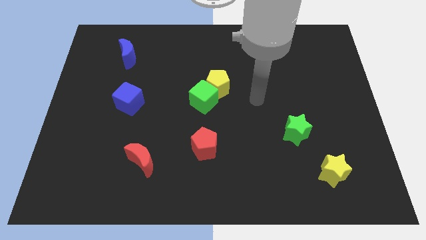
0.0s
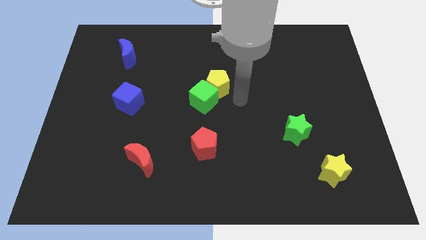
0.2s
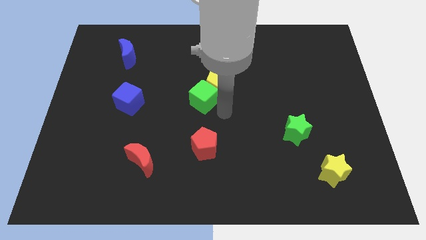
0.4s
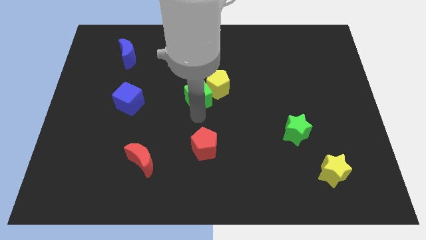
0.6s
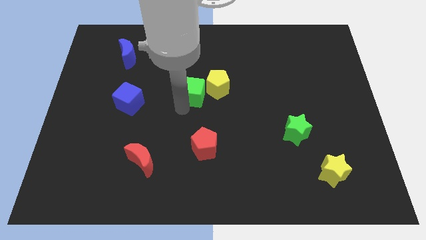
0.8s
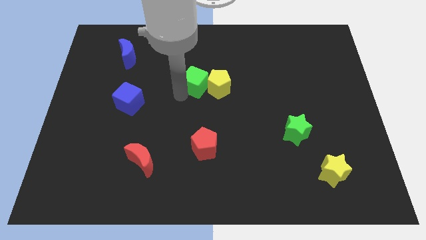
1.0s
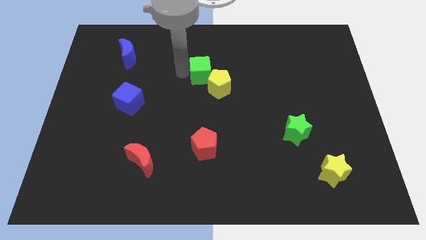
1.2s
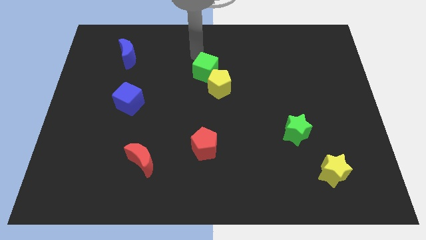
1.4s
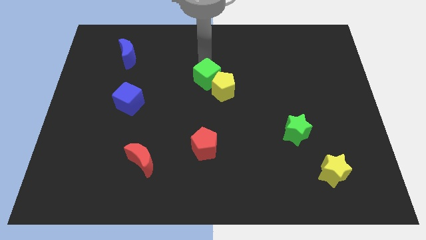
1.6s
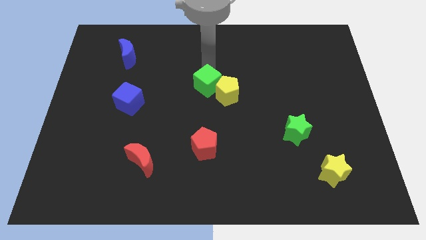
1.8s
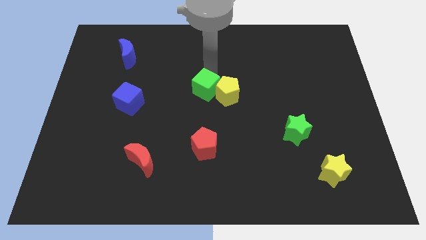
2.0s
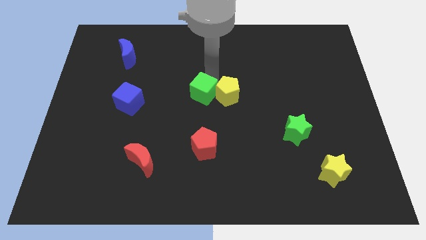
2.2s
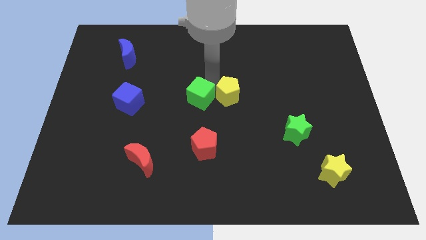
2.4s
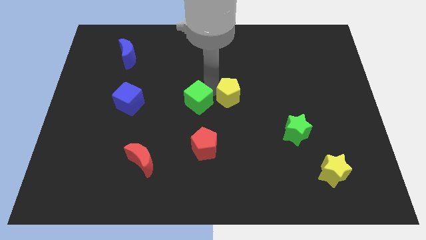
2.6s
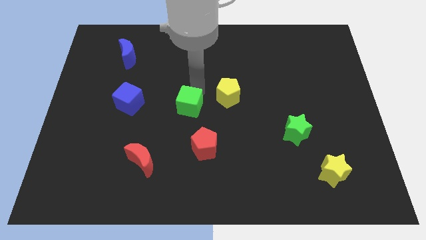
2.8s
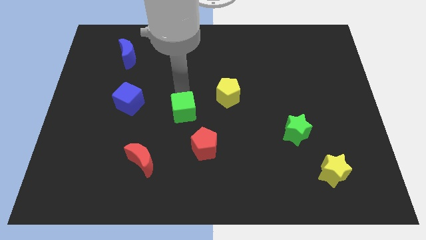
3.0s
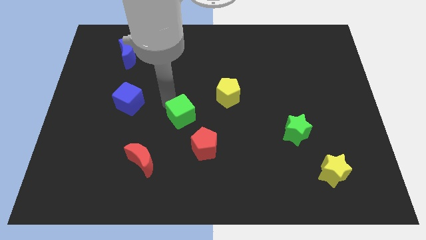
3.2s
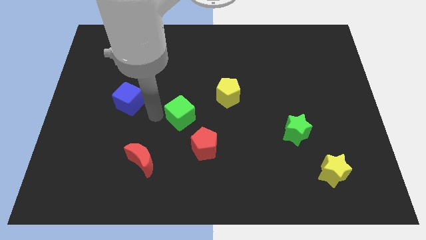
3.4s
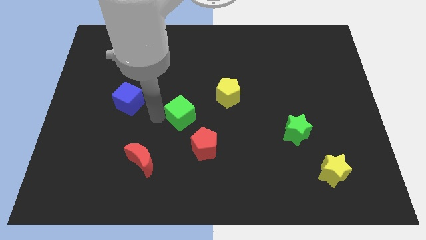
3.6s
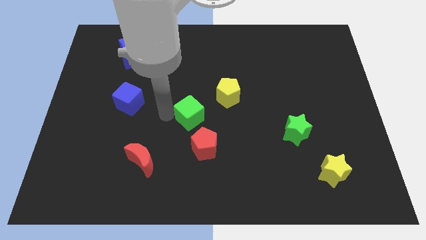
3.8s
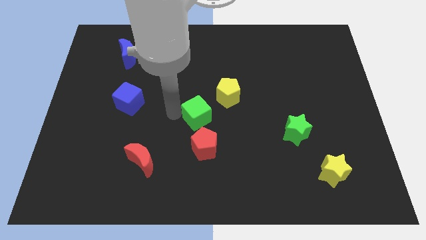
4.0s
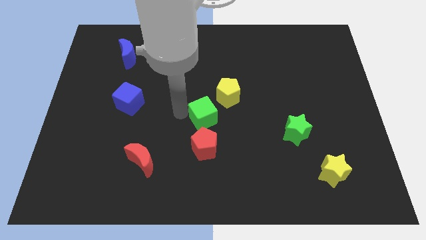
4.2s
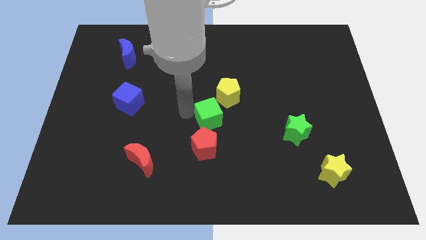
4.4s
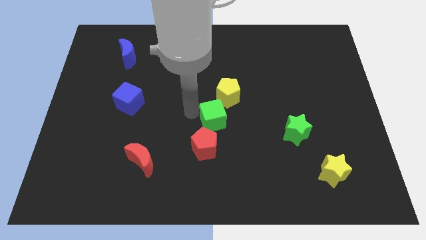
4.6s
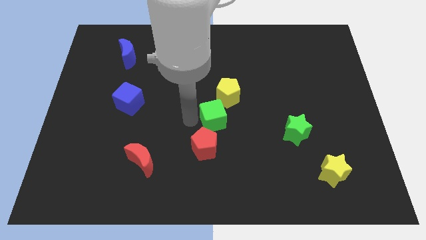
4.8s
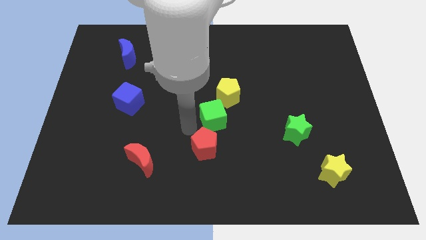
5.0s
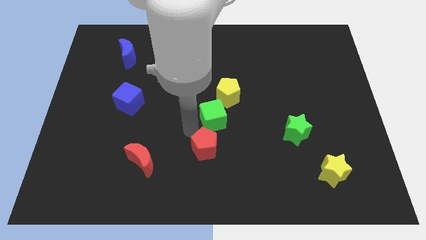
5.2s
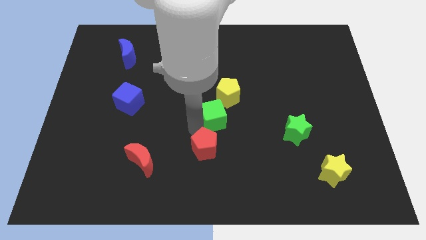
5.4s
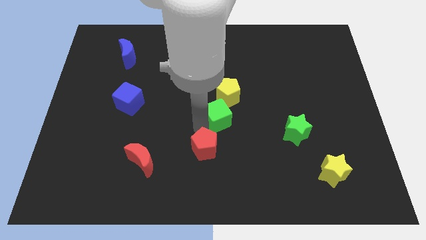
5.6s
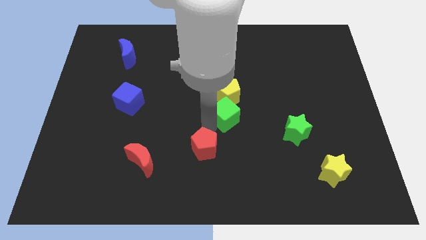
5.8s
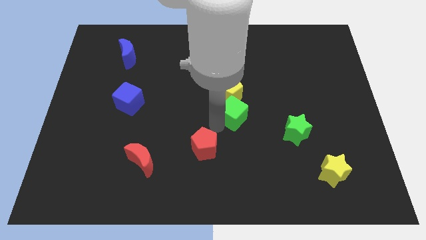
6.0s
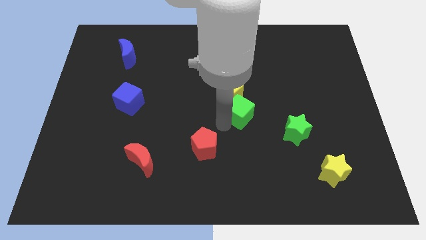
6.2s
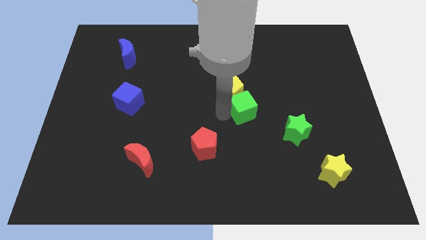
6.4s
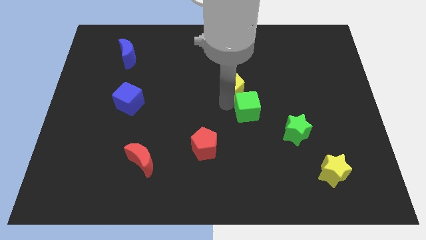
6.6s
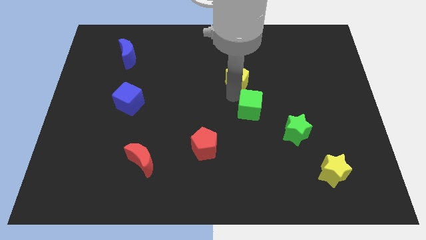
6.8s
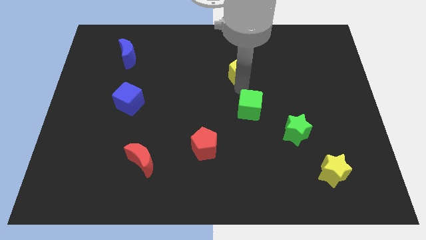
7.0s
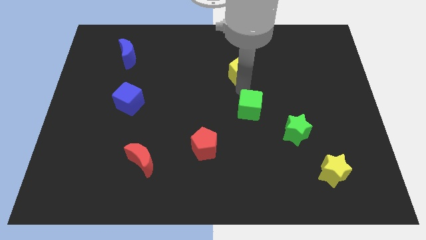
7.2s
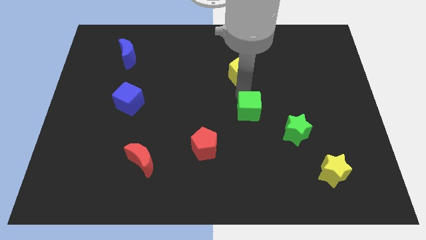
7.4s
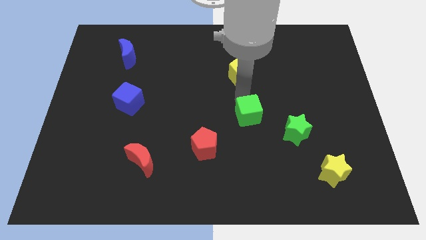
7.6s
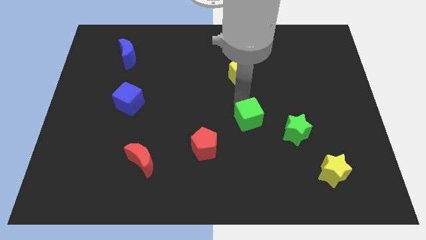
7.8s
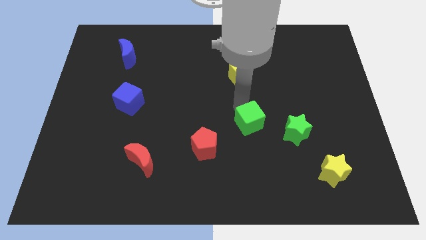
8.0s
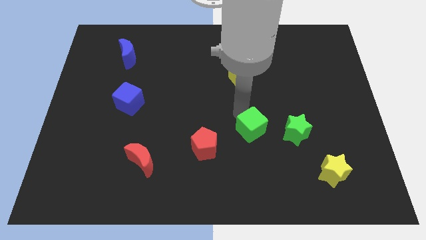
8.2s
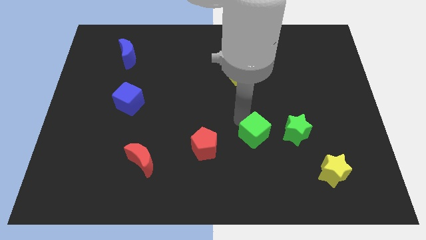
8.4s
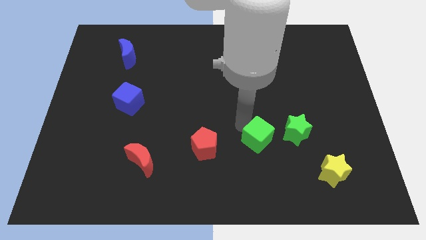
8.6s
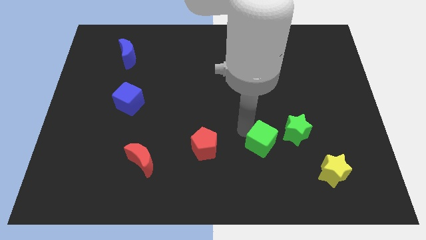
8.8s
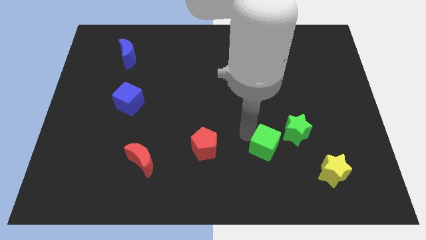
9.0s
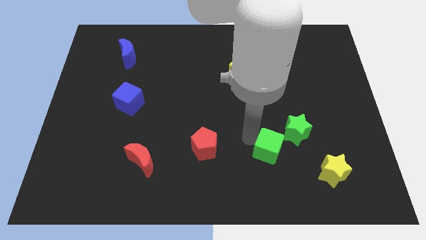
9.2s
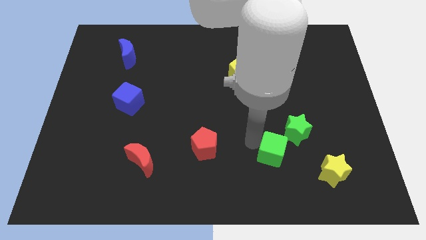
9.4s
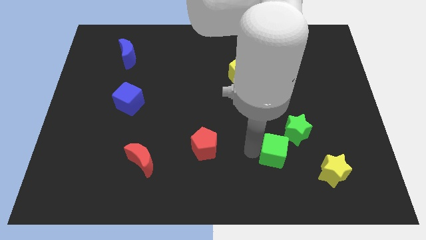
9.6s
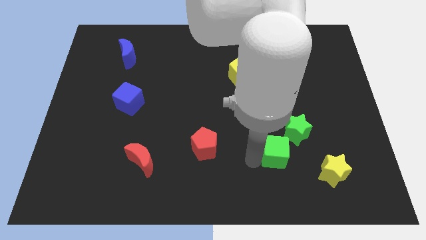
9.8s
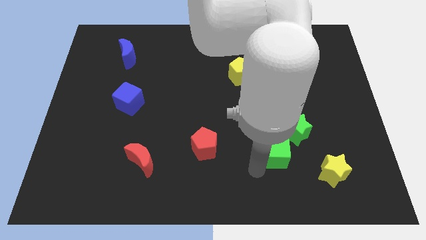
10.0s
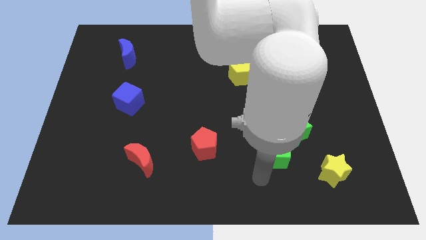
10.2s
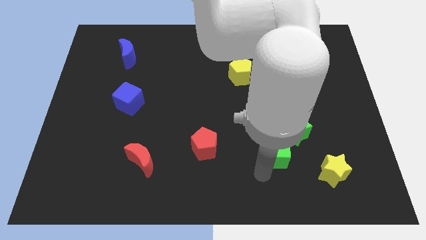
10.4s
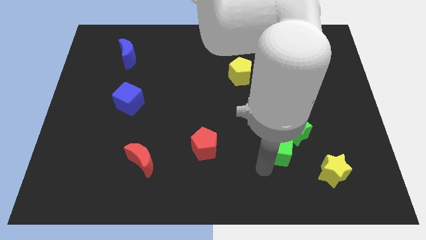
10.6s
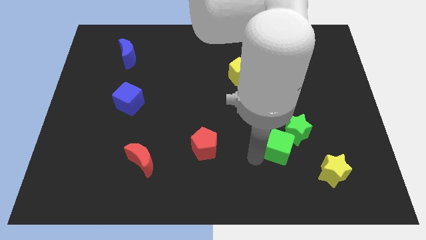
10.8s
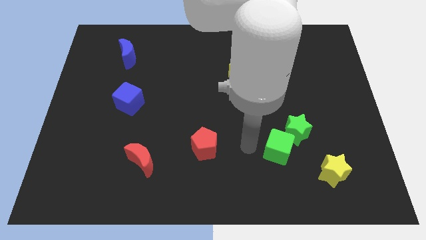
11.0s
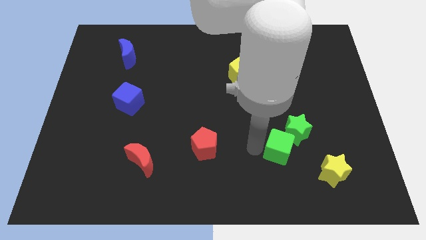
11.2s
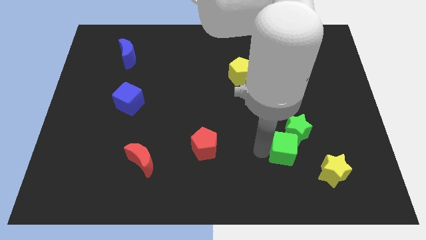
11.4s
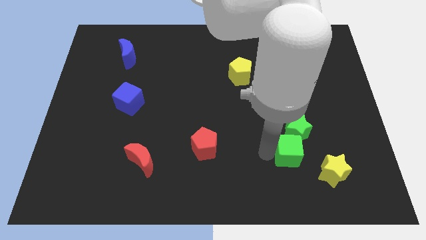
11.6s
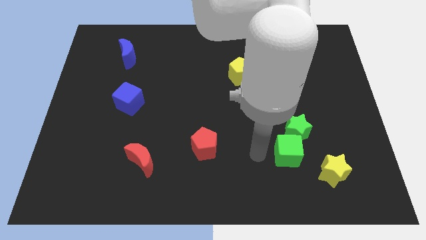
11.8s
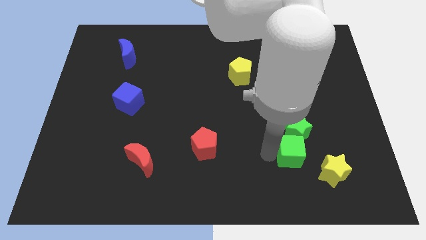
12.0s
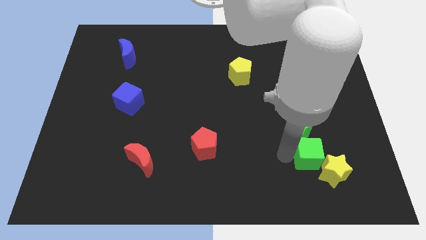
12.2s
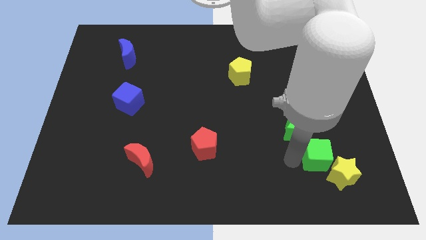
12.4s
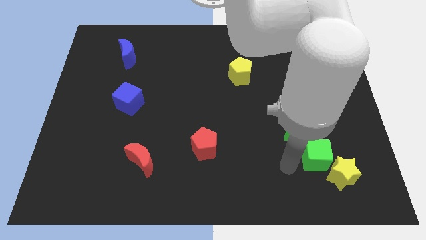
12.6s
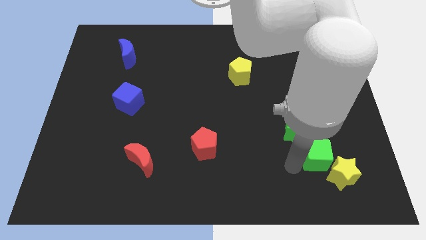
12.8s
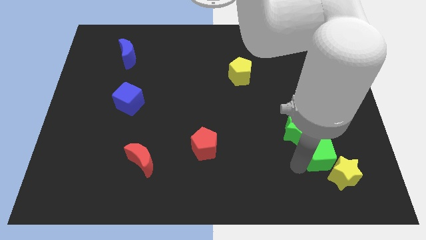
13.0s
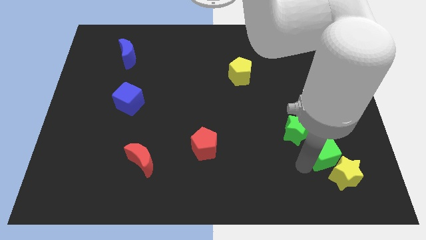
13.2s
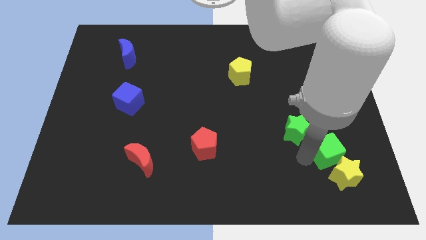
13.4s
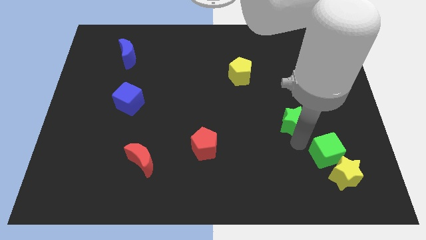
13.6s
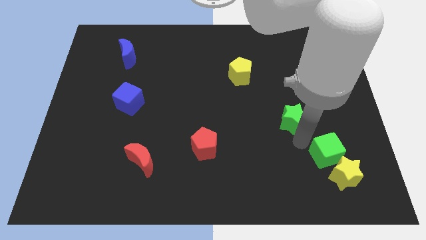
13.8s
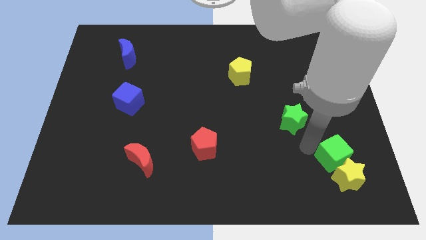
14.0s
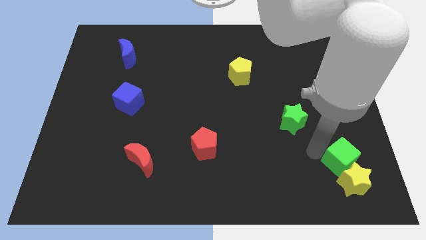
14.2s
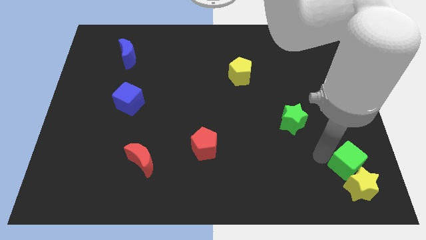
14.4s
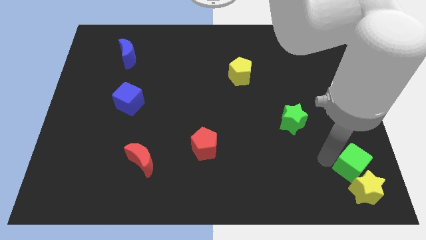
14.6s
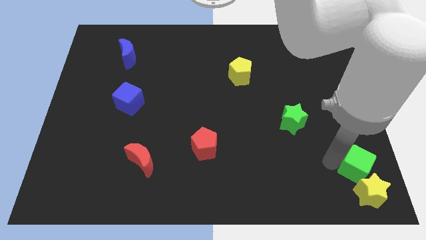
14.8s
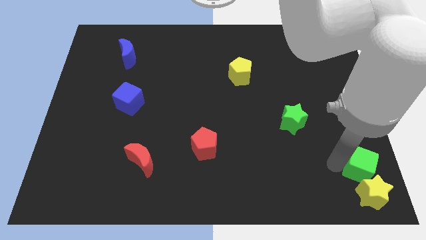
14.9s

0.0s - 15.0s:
put the green cube to the lower right corner
